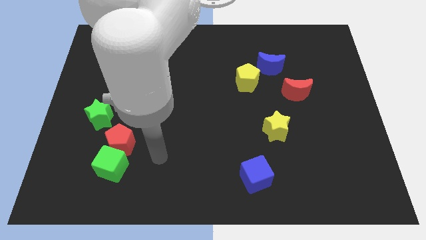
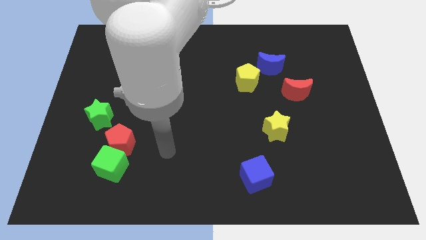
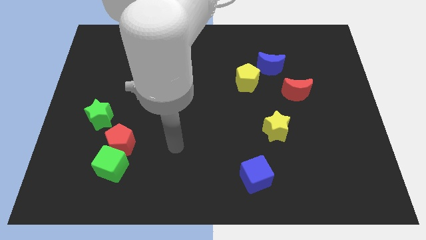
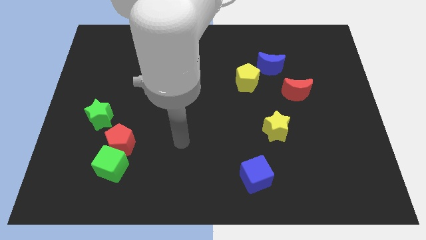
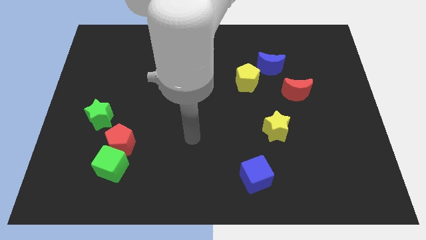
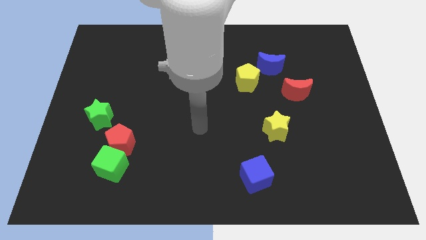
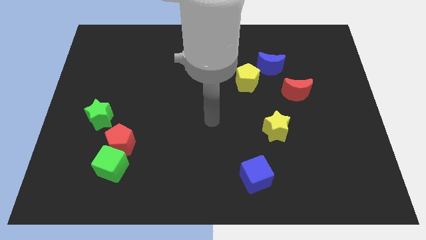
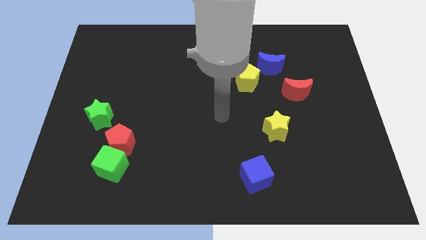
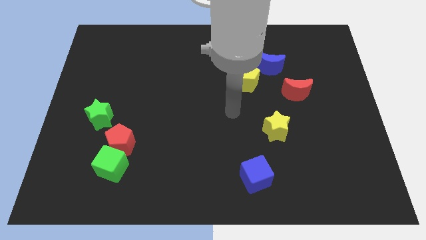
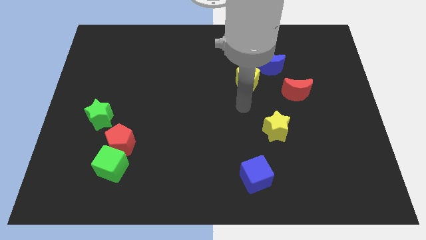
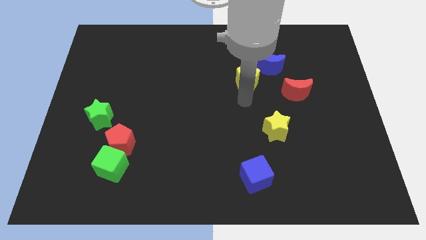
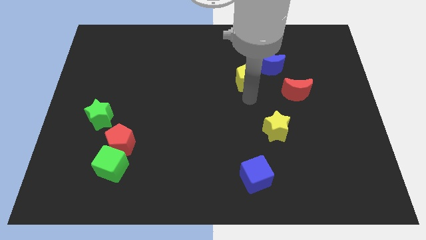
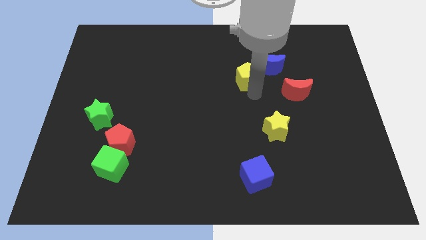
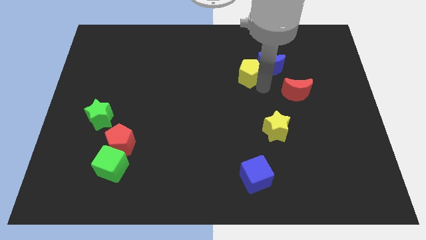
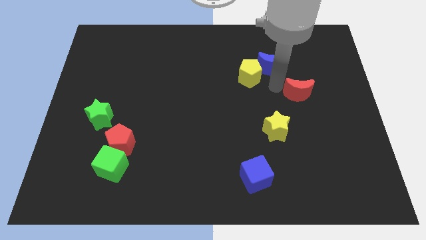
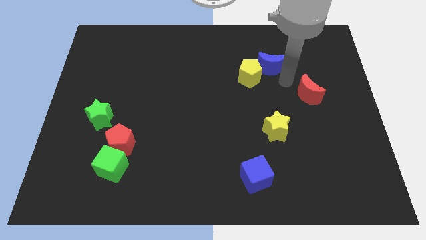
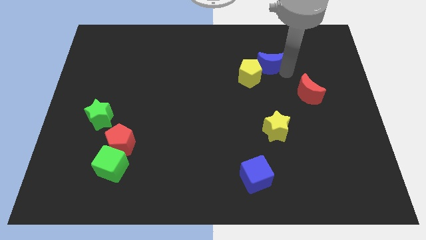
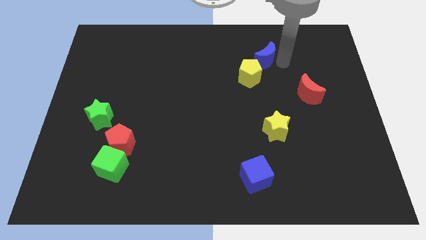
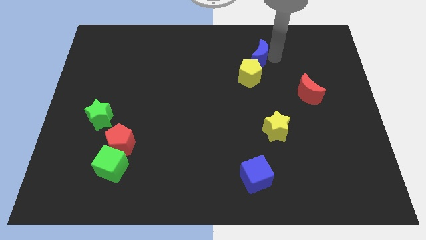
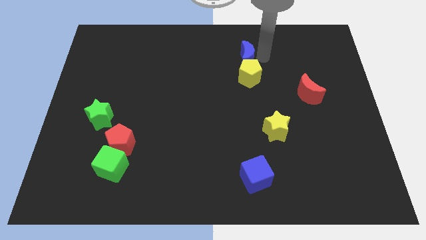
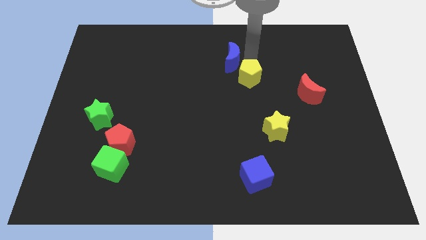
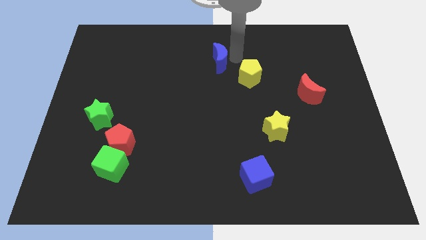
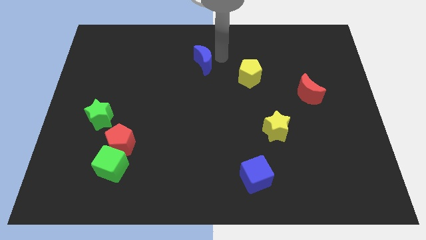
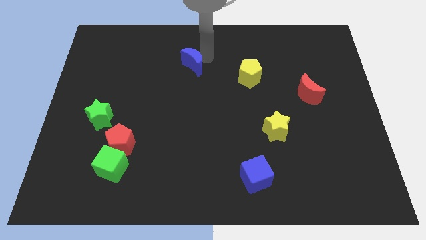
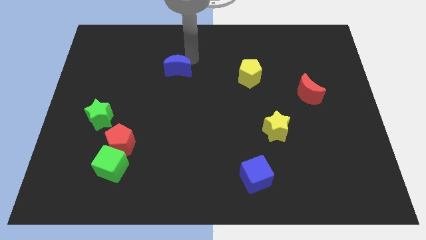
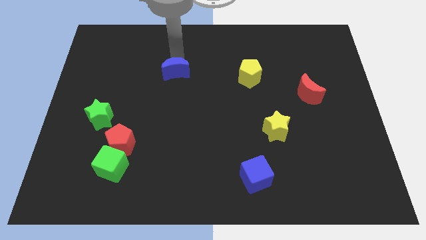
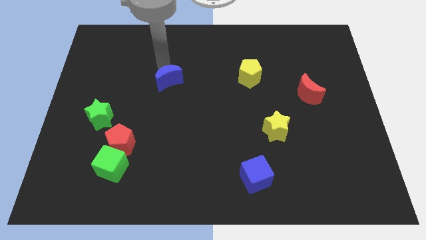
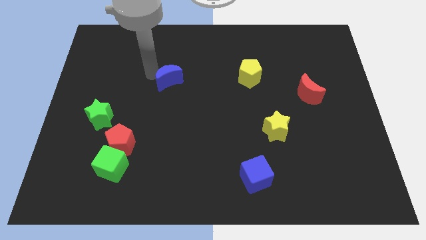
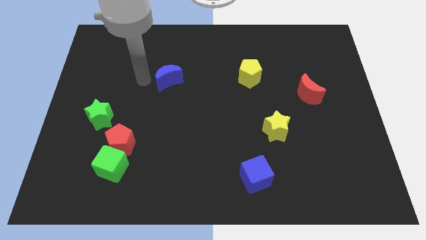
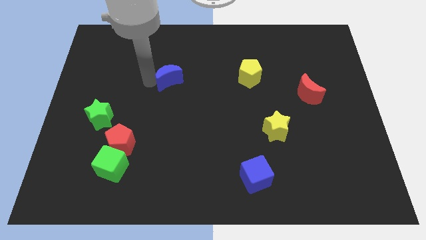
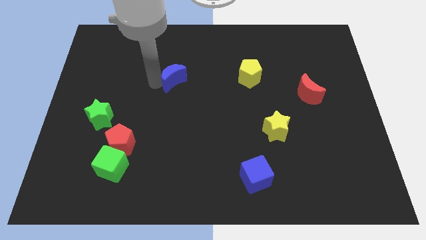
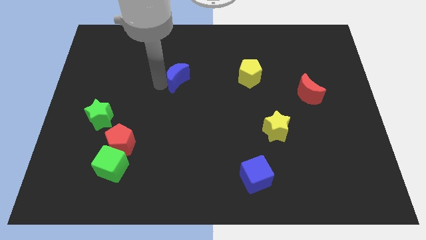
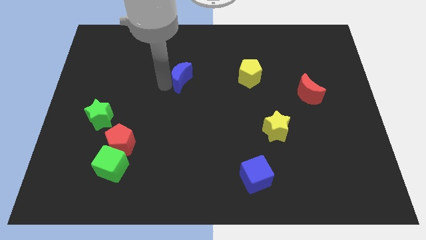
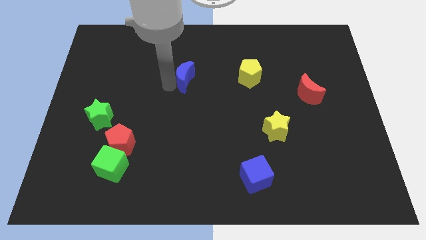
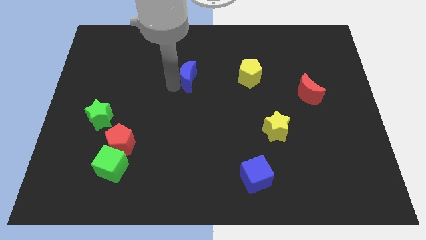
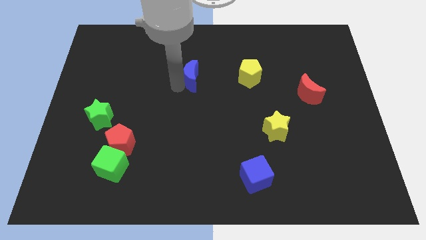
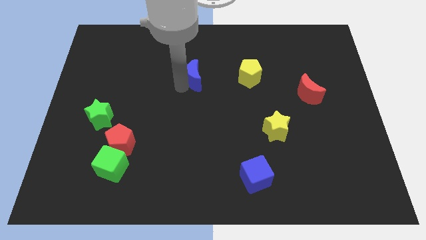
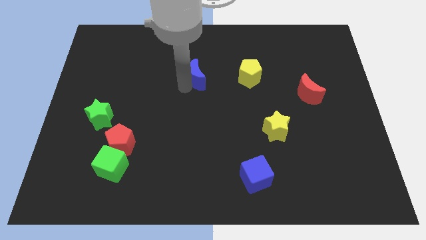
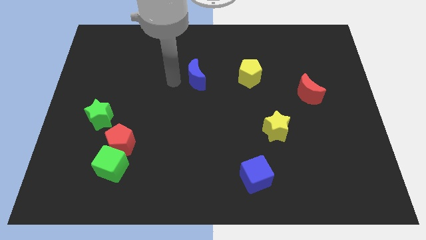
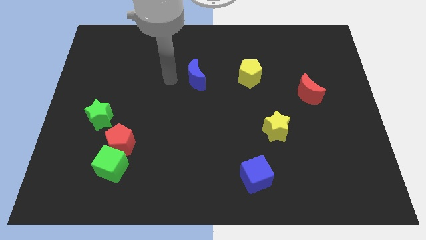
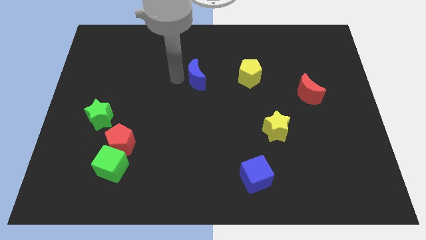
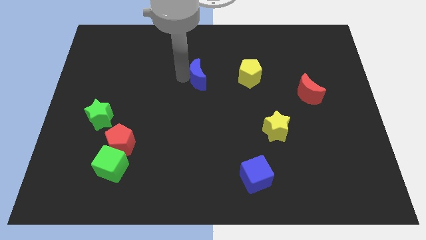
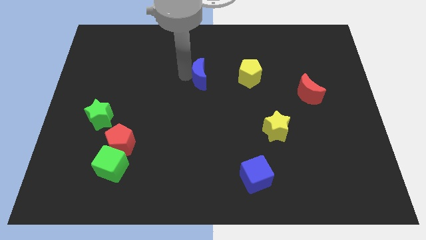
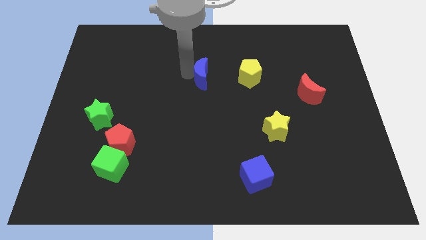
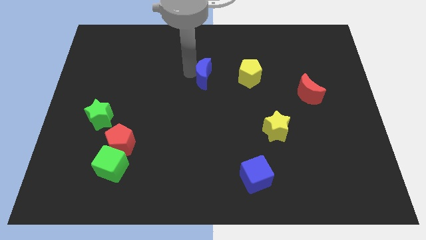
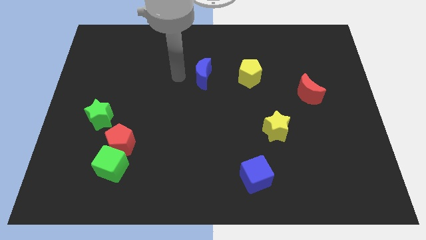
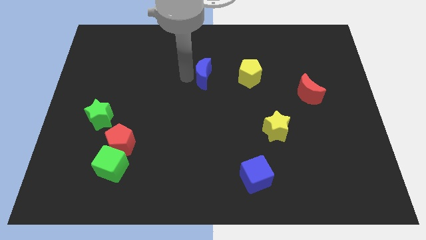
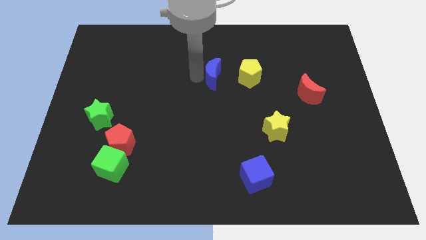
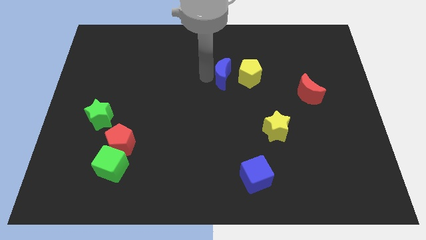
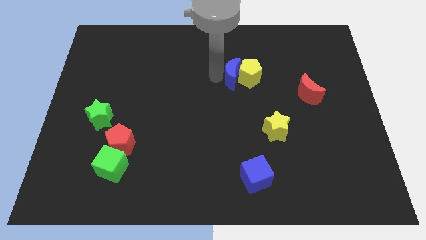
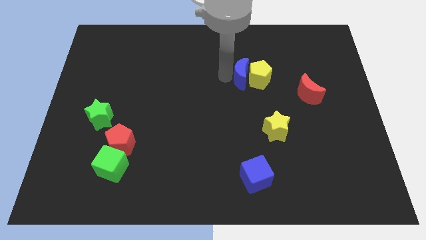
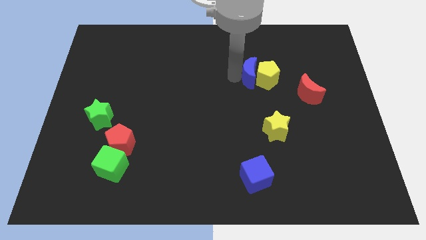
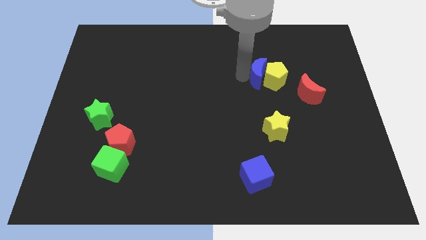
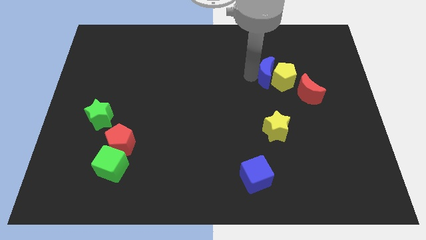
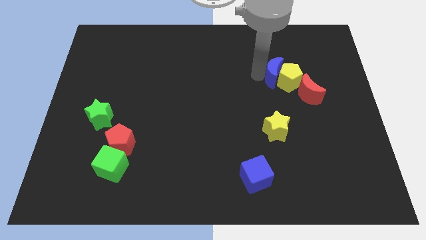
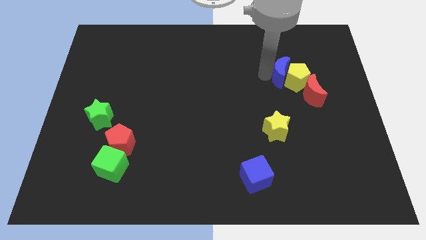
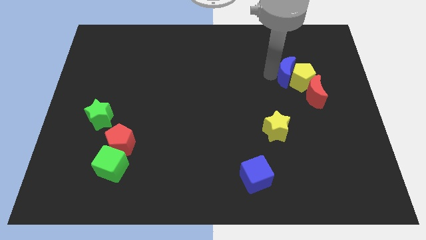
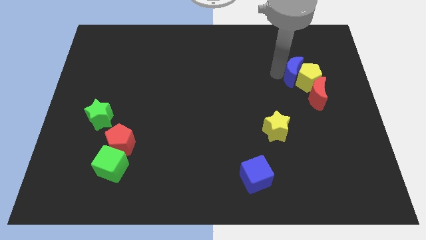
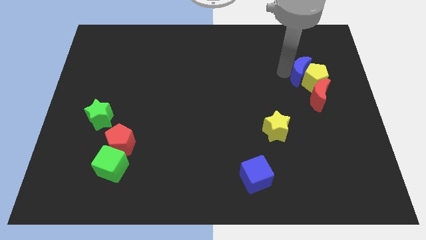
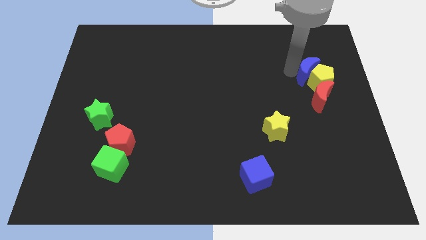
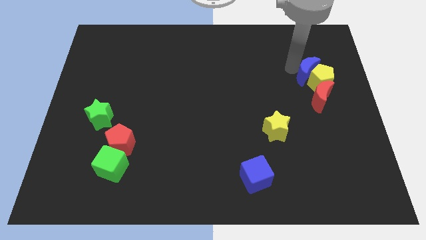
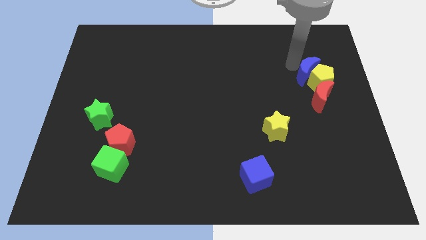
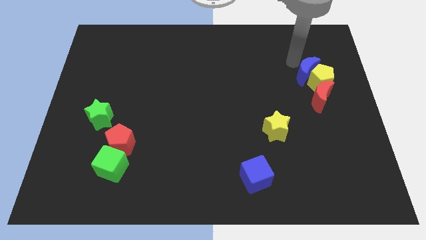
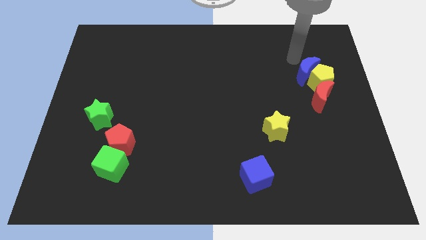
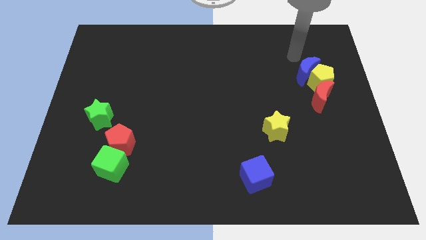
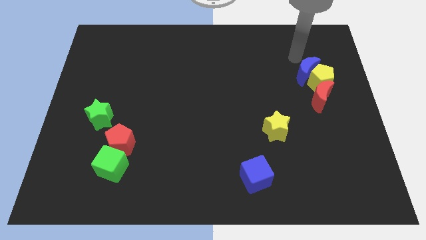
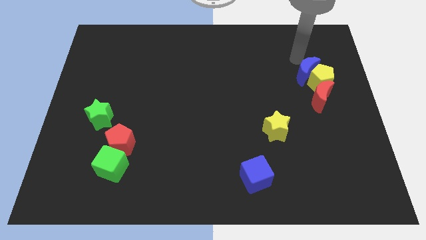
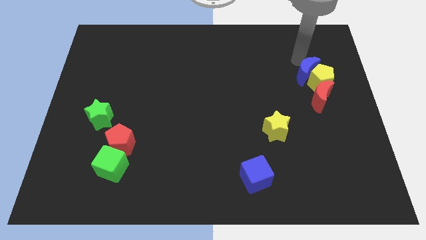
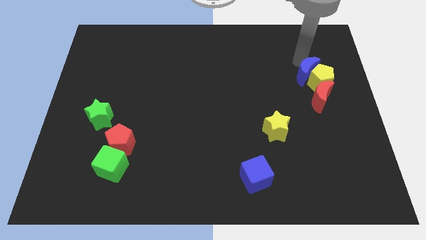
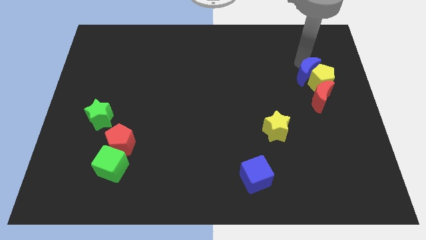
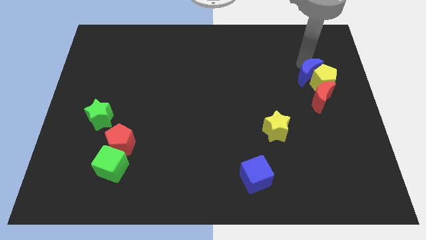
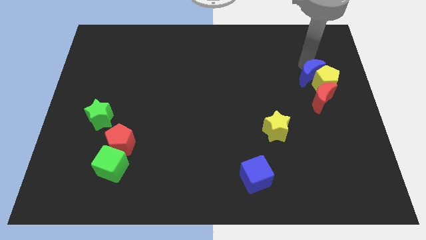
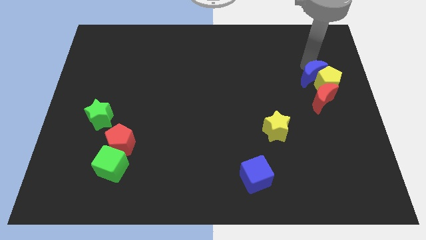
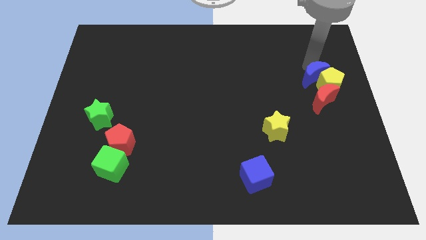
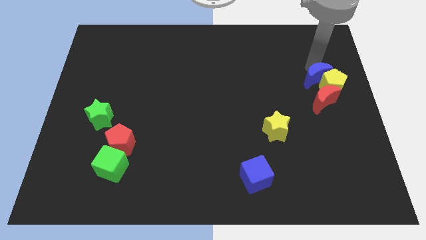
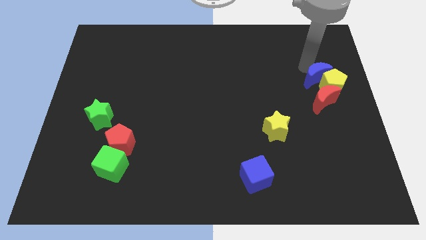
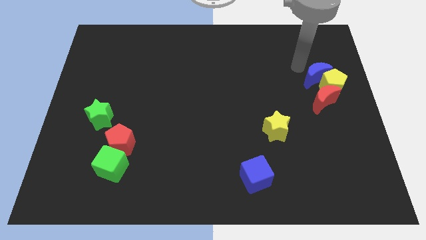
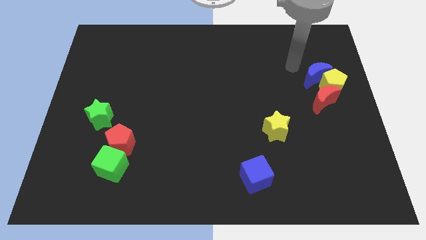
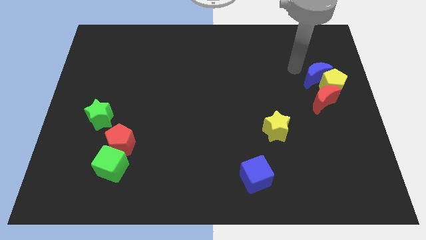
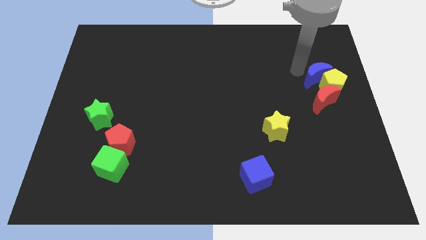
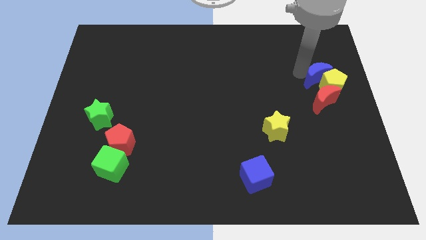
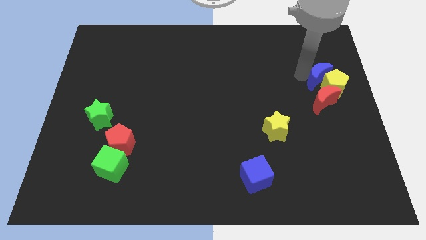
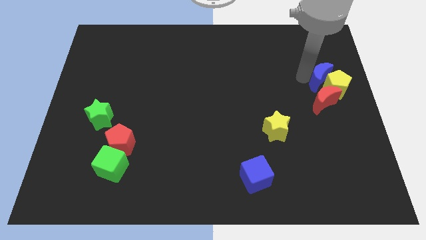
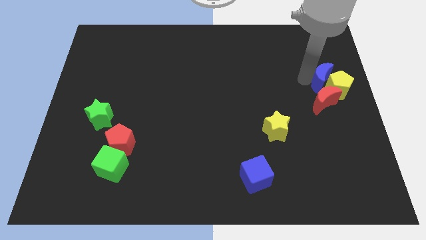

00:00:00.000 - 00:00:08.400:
move the blue moon to the right side of the board
